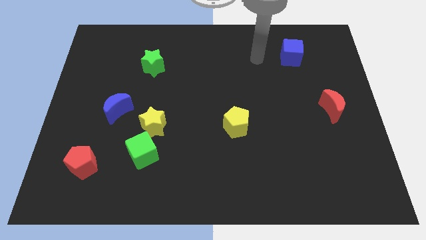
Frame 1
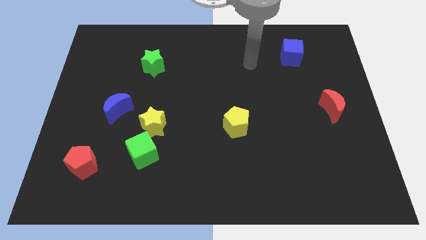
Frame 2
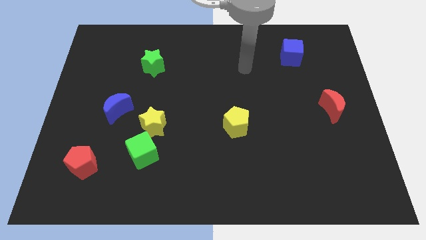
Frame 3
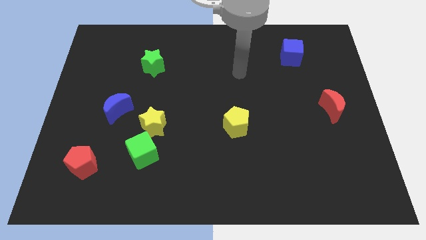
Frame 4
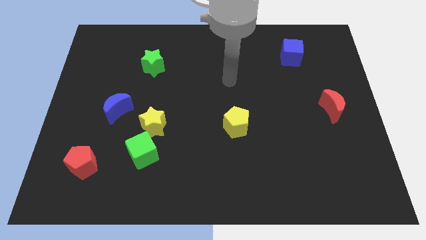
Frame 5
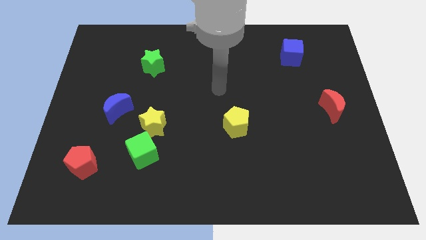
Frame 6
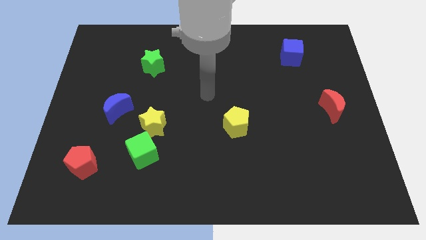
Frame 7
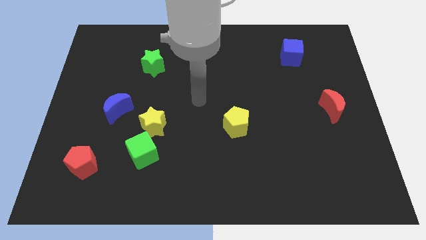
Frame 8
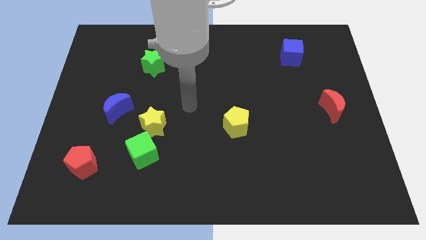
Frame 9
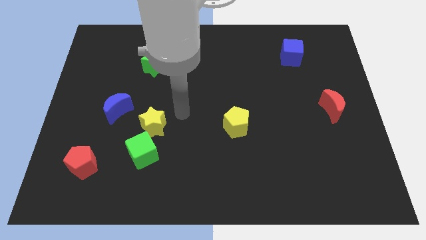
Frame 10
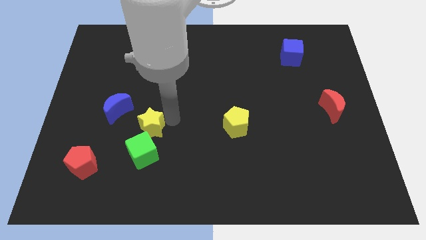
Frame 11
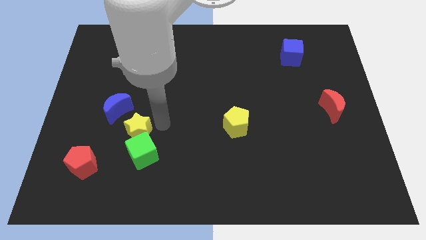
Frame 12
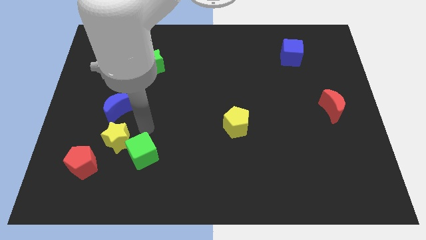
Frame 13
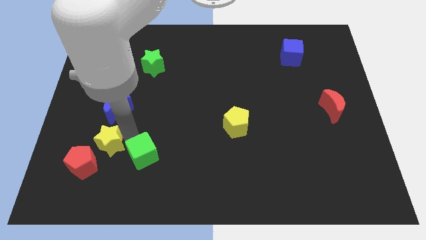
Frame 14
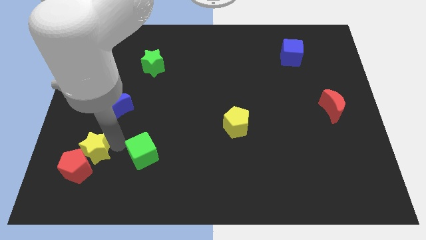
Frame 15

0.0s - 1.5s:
pull the green cube apart from the yellow star

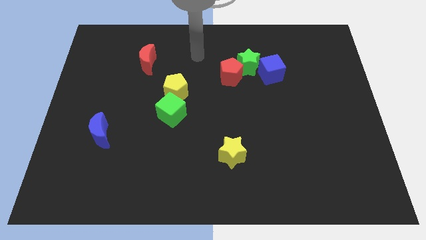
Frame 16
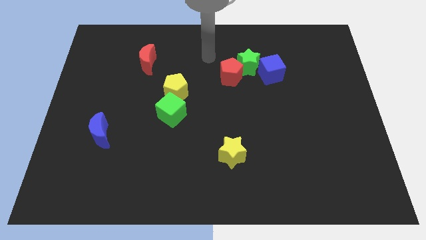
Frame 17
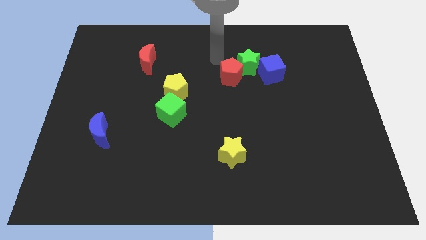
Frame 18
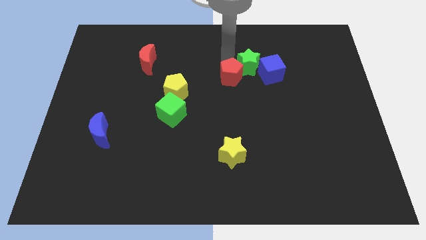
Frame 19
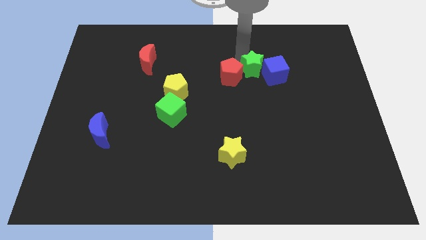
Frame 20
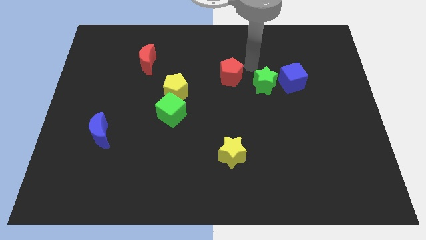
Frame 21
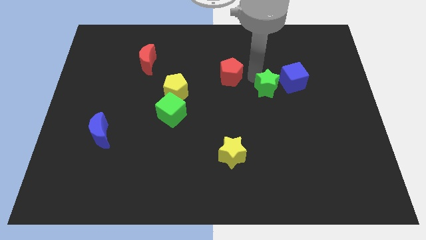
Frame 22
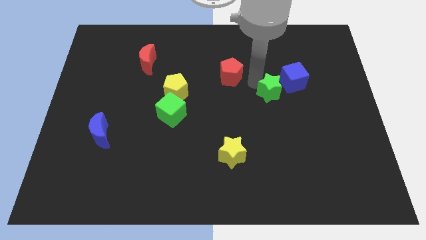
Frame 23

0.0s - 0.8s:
pull the red pentagon apart from the green star

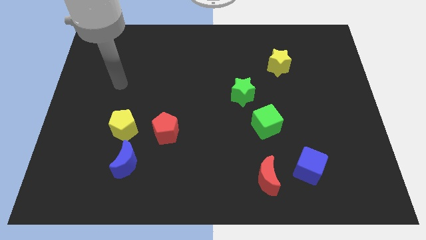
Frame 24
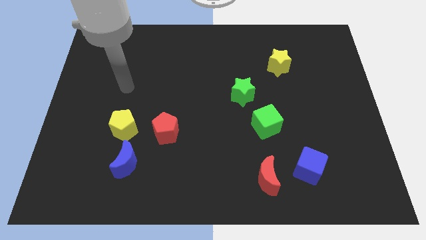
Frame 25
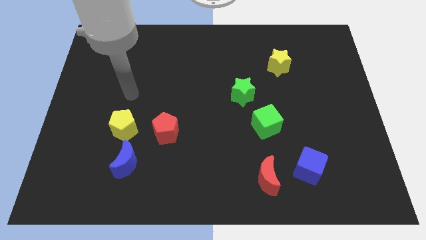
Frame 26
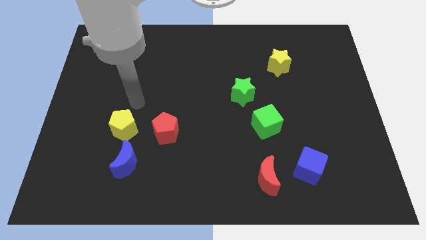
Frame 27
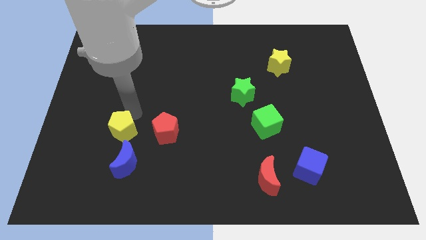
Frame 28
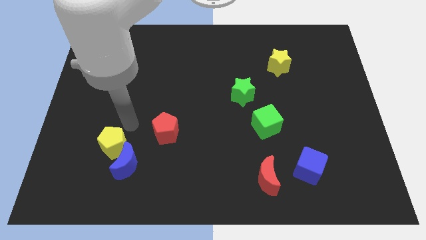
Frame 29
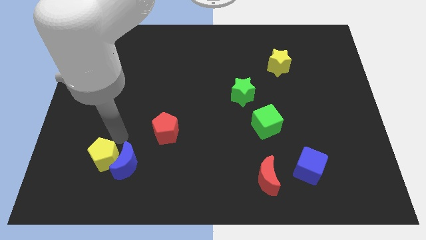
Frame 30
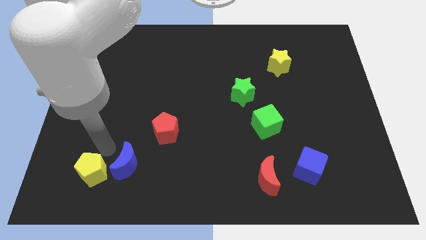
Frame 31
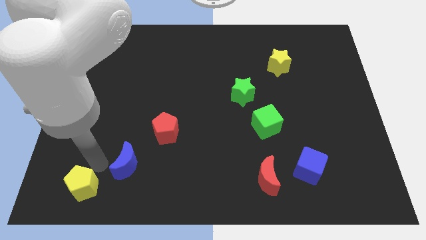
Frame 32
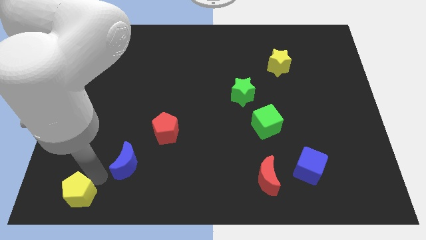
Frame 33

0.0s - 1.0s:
move the blue moon away from the yellow pentagon

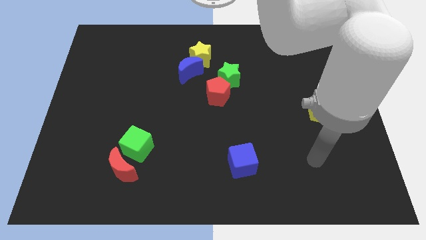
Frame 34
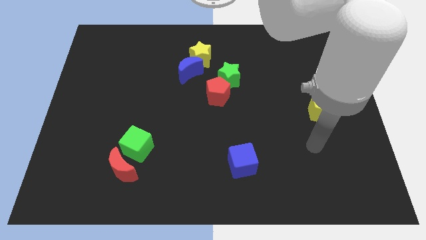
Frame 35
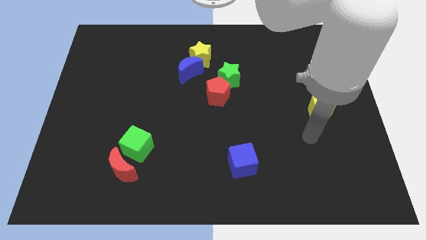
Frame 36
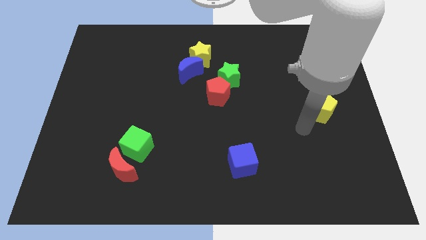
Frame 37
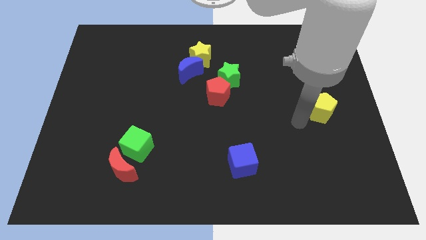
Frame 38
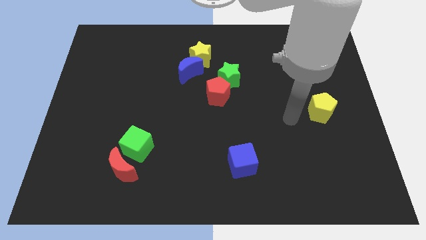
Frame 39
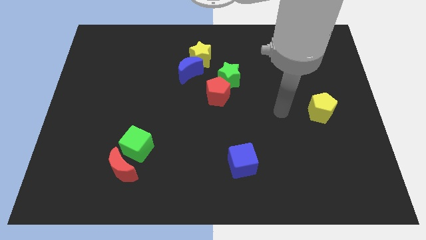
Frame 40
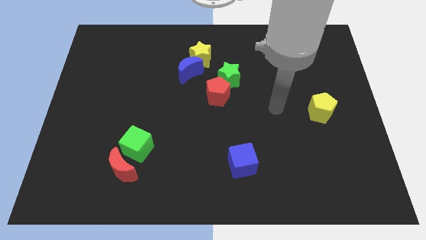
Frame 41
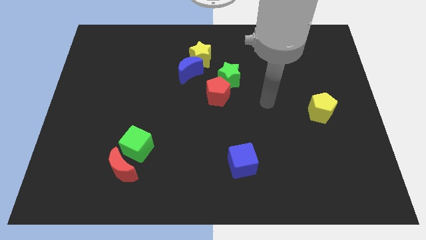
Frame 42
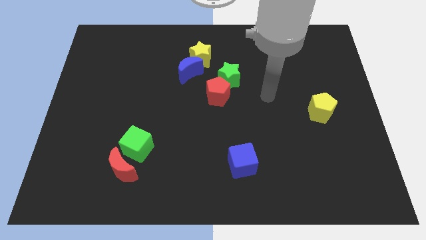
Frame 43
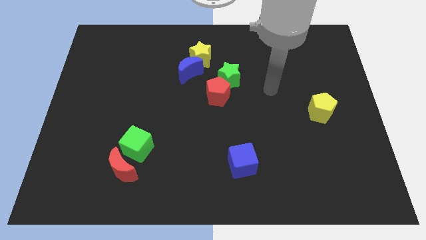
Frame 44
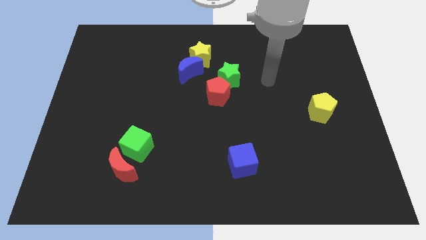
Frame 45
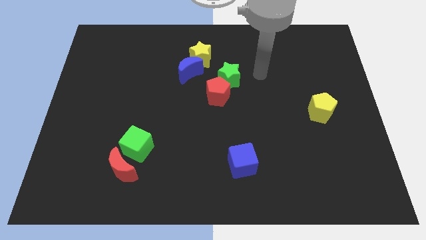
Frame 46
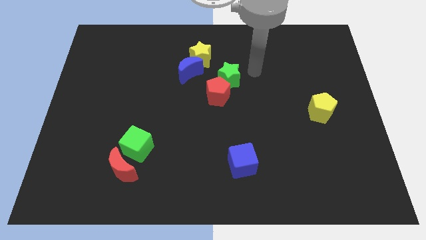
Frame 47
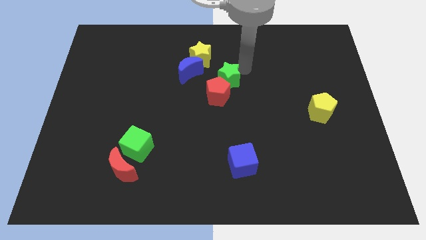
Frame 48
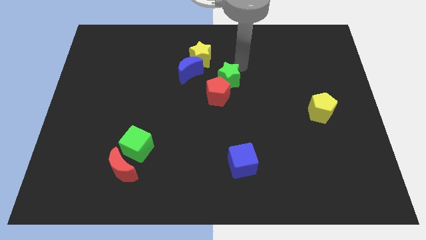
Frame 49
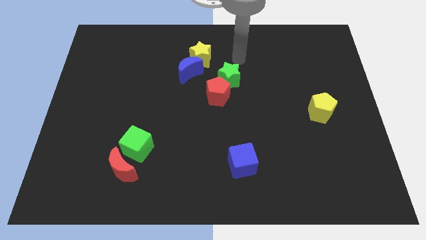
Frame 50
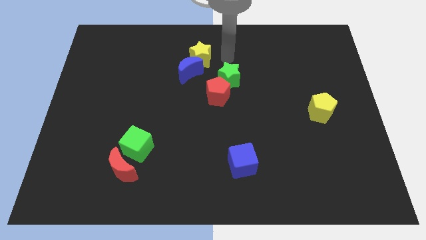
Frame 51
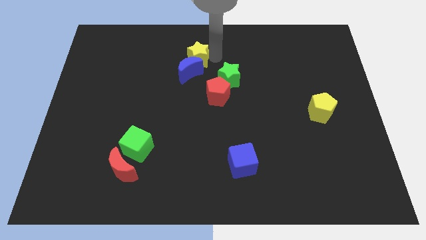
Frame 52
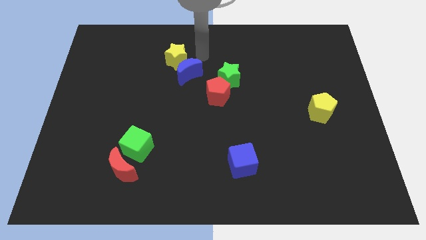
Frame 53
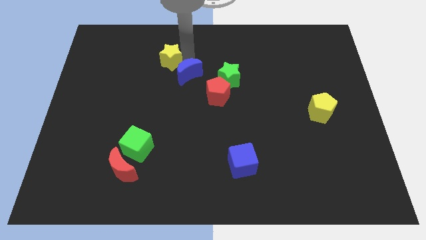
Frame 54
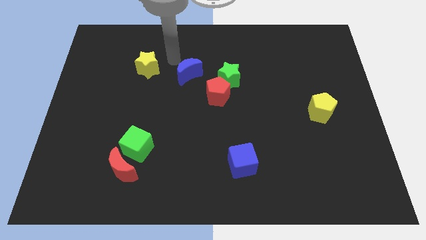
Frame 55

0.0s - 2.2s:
move the blue moon away from the yellow star

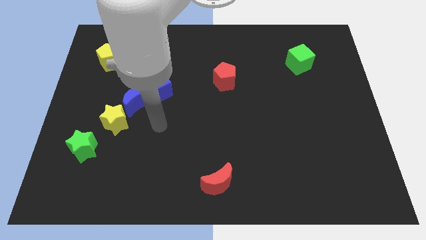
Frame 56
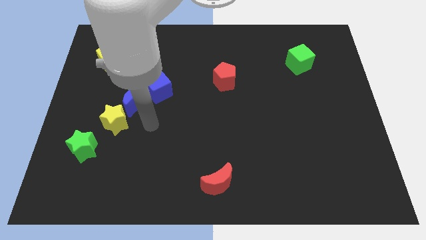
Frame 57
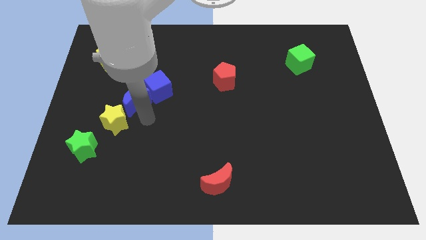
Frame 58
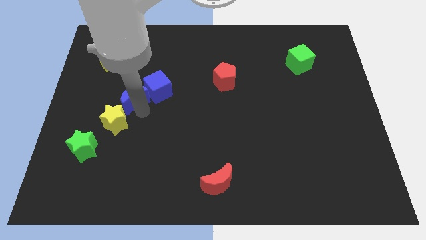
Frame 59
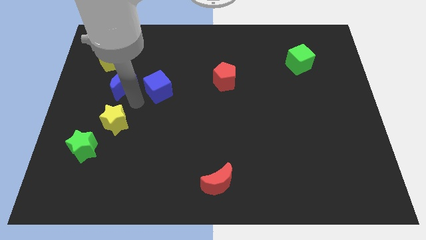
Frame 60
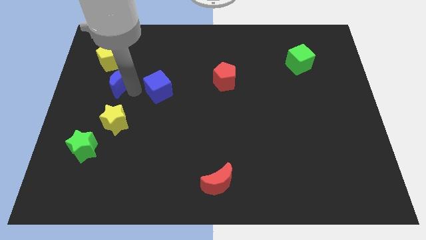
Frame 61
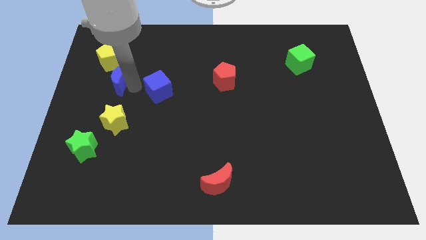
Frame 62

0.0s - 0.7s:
move the blue cube away from the blue moon

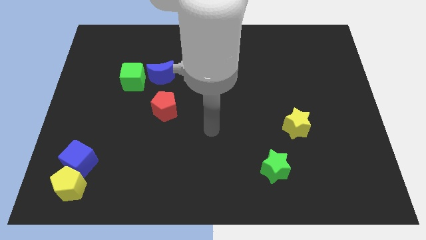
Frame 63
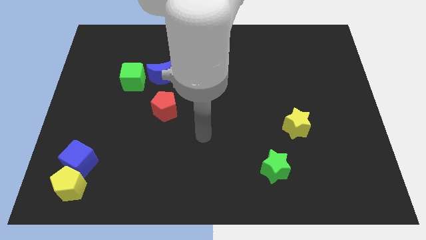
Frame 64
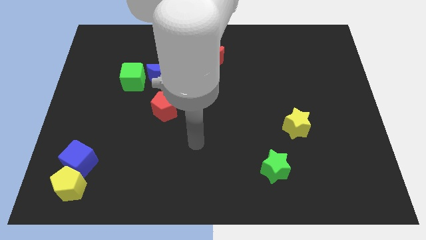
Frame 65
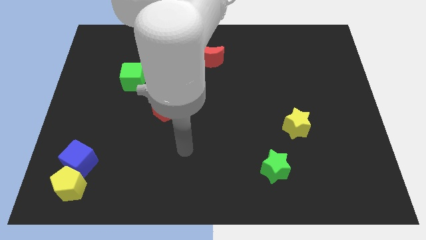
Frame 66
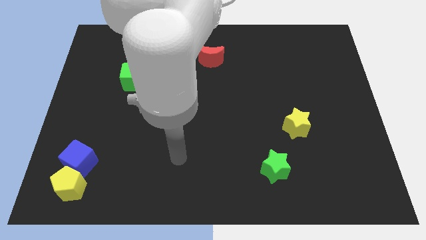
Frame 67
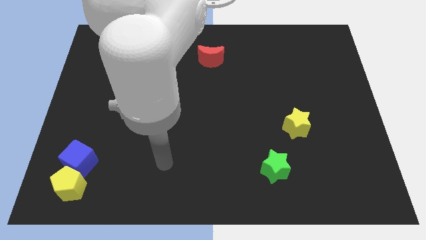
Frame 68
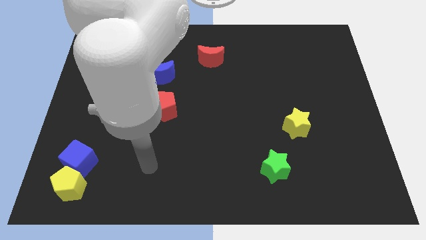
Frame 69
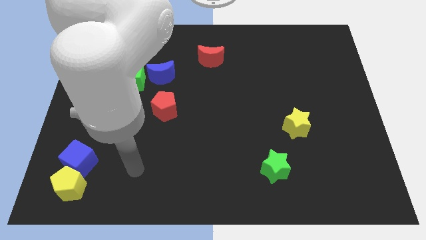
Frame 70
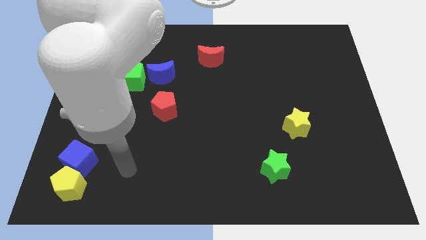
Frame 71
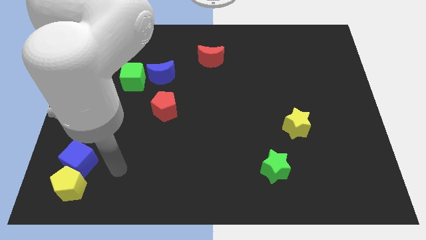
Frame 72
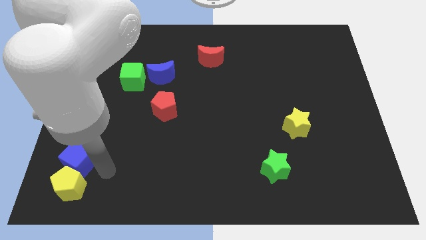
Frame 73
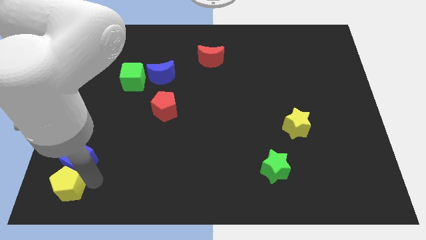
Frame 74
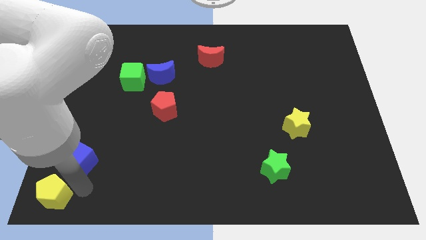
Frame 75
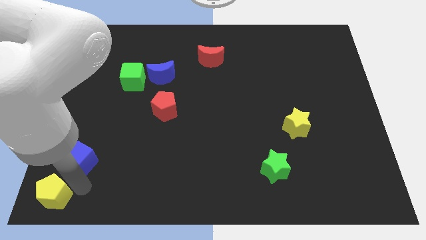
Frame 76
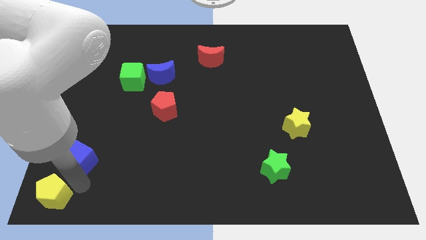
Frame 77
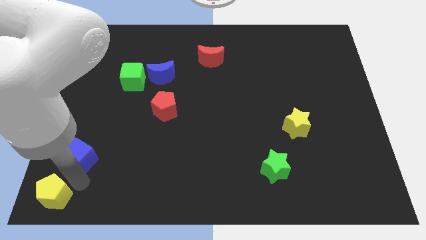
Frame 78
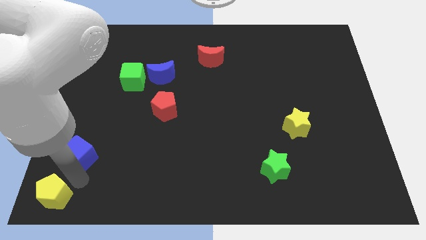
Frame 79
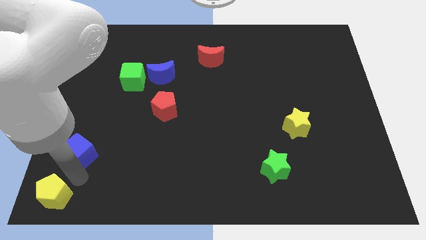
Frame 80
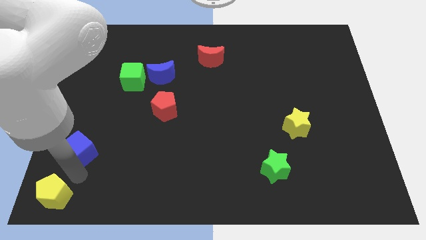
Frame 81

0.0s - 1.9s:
move the blue cube away from the yellow pentagon

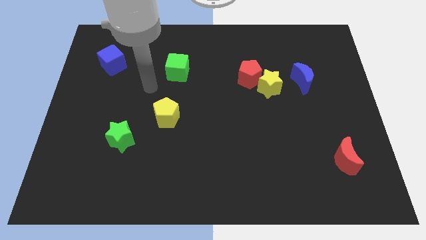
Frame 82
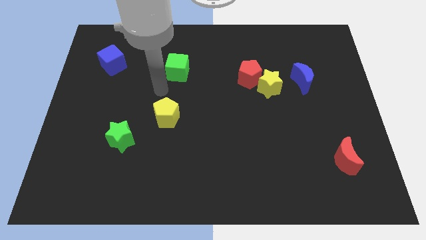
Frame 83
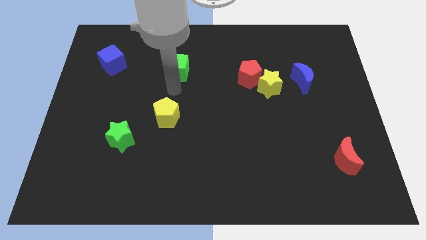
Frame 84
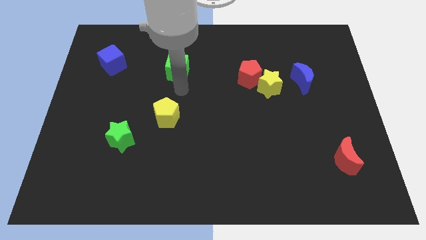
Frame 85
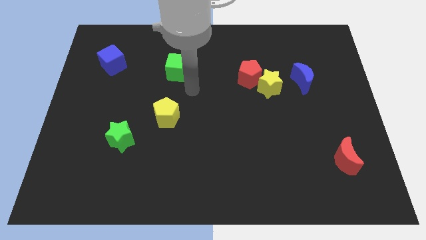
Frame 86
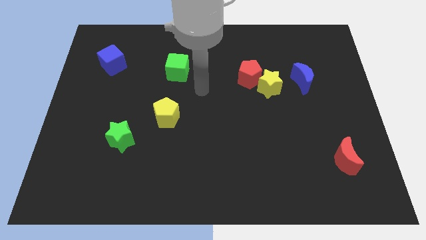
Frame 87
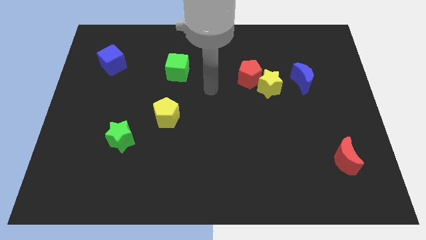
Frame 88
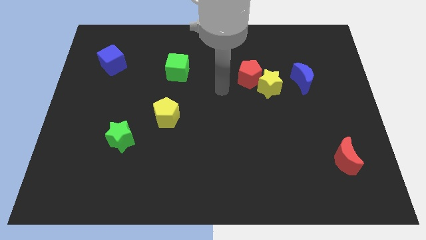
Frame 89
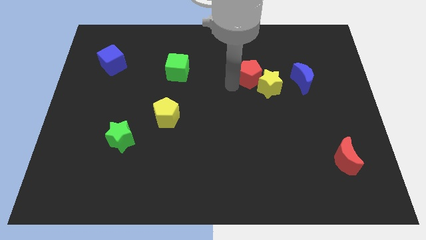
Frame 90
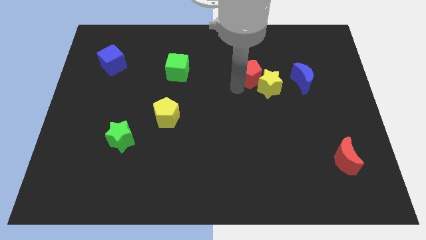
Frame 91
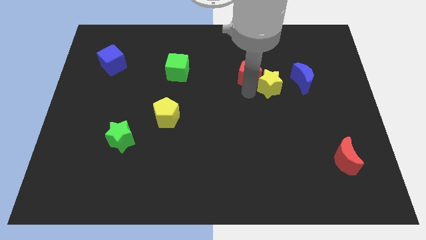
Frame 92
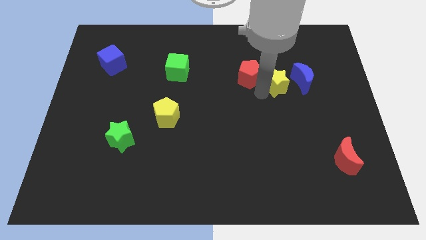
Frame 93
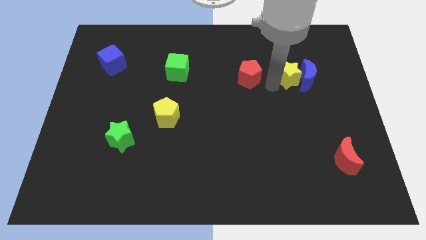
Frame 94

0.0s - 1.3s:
separate the red pentagon from the yellow star
